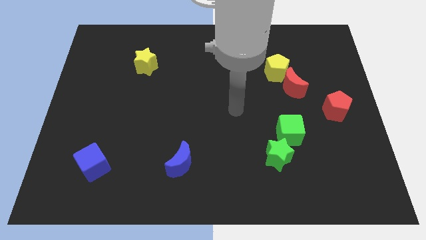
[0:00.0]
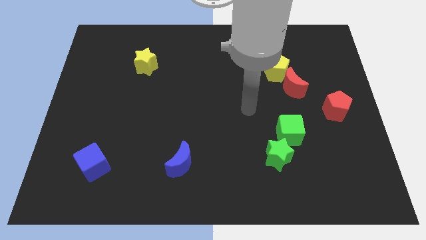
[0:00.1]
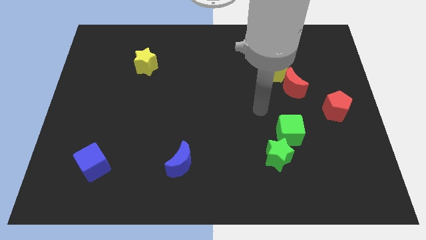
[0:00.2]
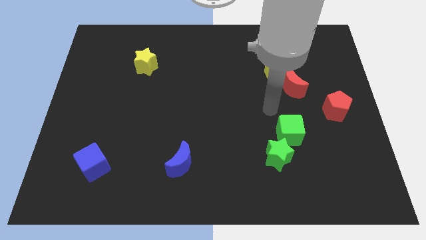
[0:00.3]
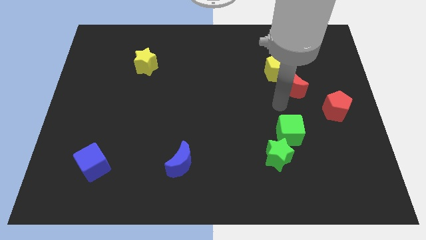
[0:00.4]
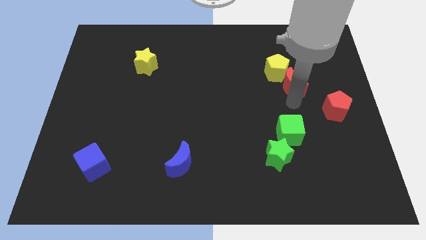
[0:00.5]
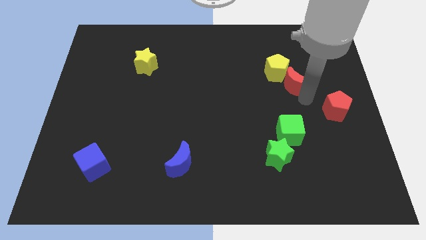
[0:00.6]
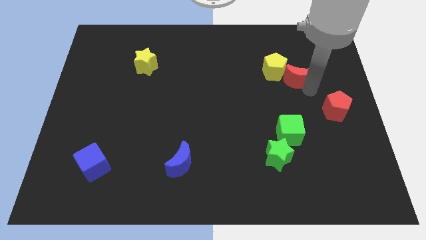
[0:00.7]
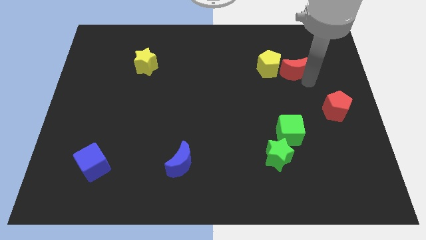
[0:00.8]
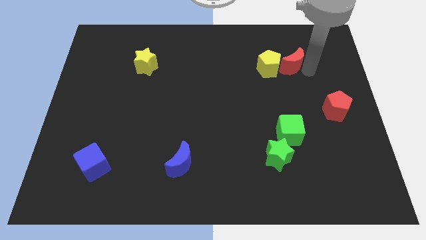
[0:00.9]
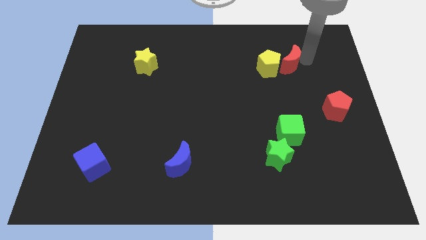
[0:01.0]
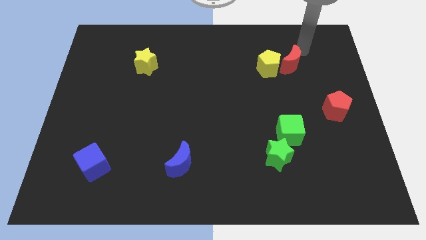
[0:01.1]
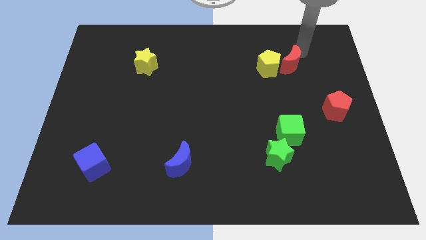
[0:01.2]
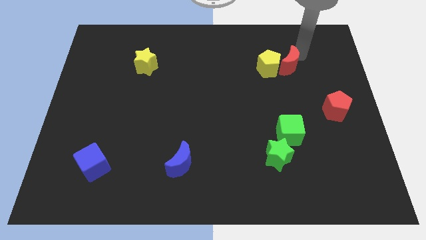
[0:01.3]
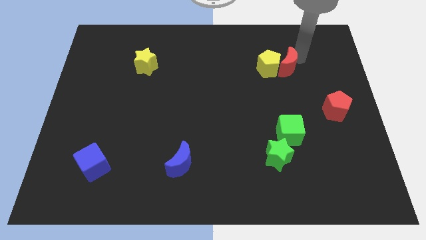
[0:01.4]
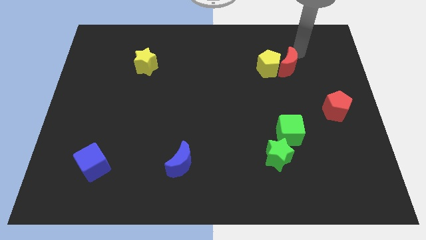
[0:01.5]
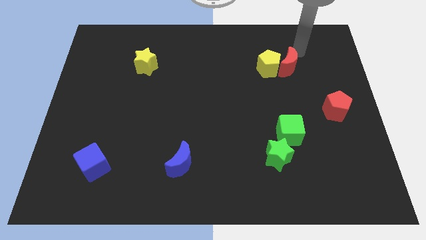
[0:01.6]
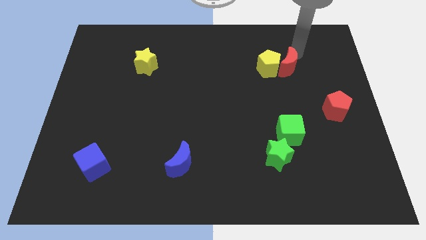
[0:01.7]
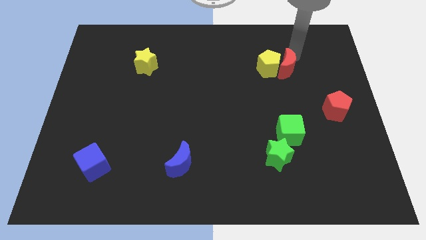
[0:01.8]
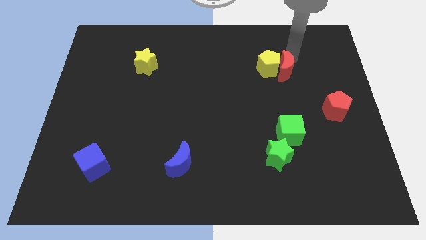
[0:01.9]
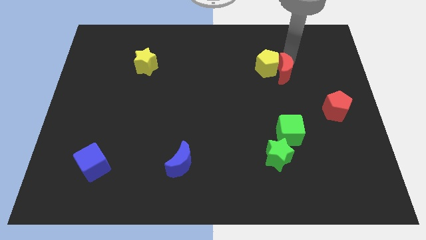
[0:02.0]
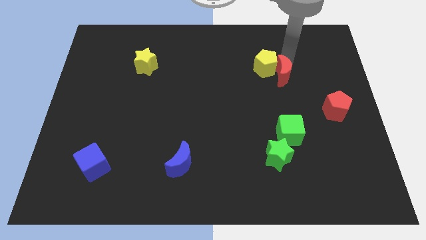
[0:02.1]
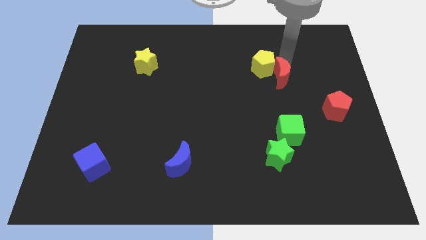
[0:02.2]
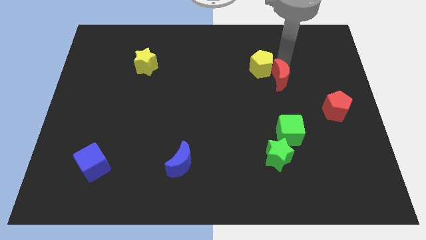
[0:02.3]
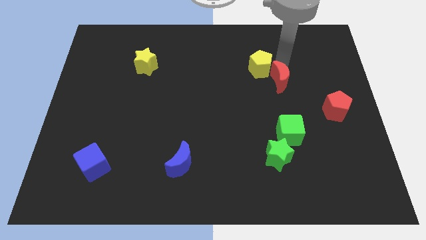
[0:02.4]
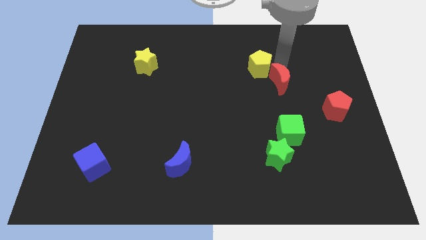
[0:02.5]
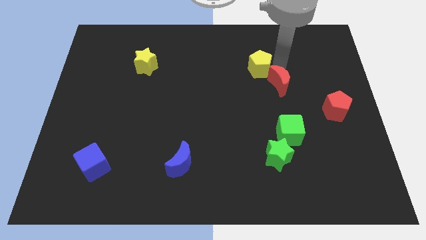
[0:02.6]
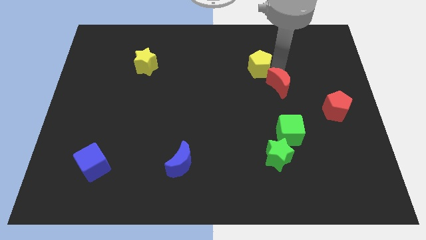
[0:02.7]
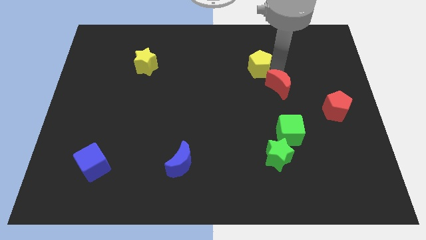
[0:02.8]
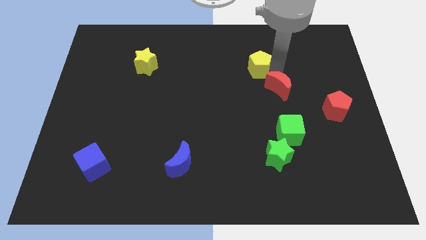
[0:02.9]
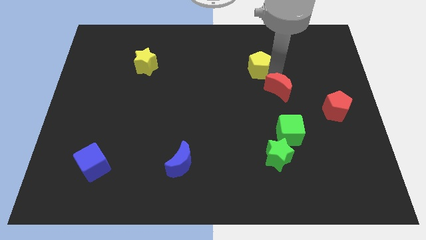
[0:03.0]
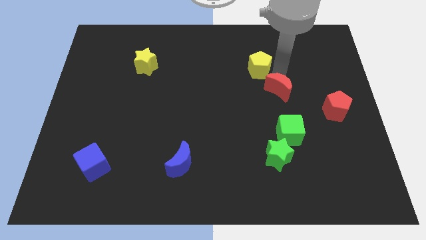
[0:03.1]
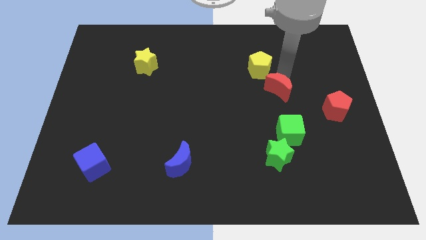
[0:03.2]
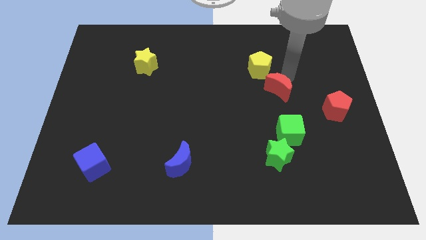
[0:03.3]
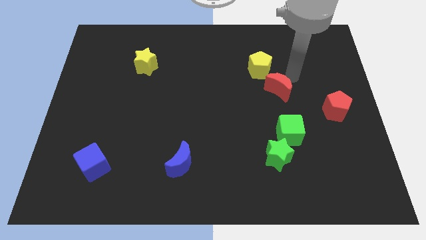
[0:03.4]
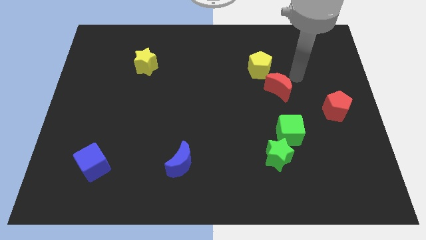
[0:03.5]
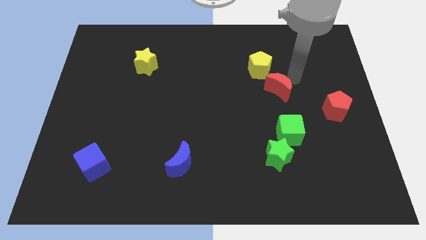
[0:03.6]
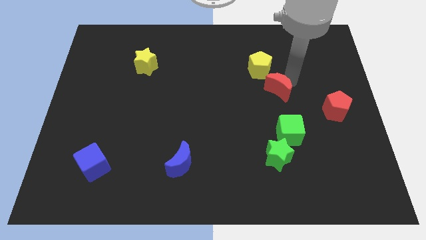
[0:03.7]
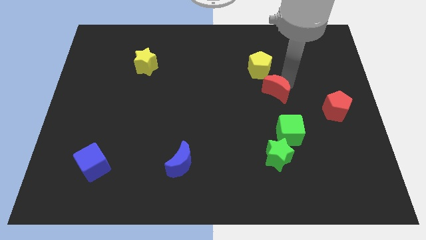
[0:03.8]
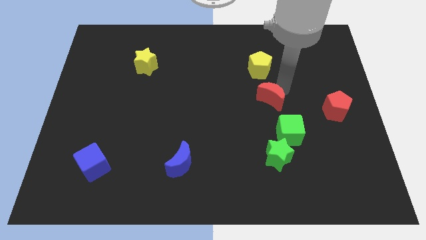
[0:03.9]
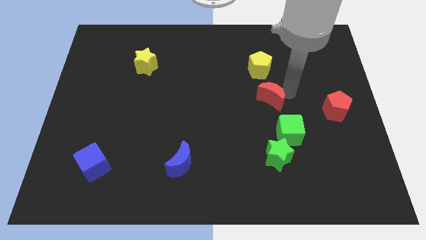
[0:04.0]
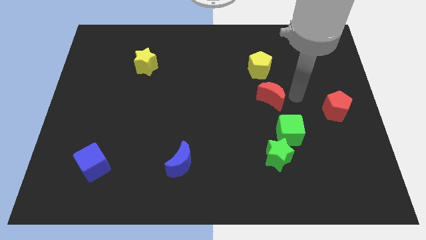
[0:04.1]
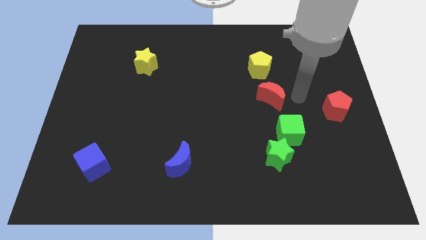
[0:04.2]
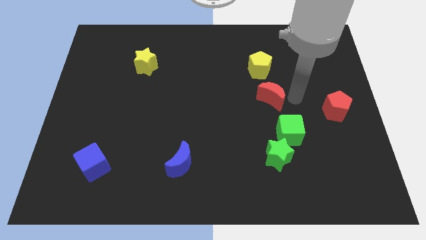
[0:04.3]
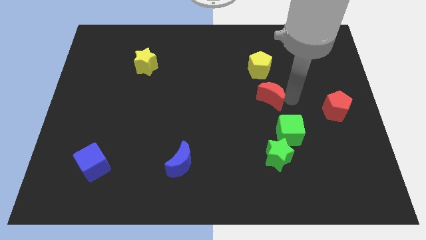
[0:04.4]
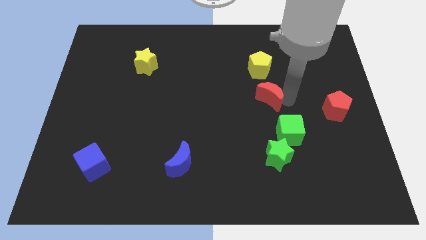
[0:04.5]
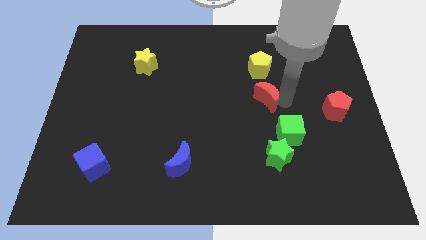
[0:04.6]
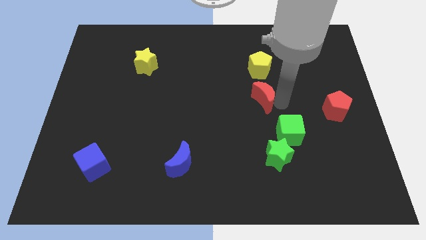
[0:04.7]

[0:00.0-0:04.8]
move the red moon to the center of the board

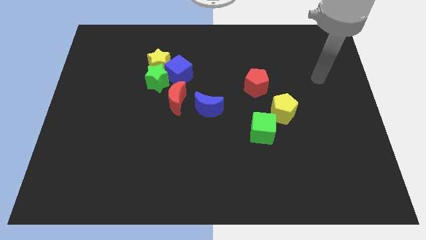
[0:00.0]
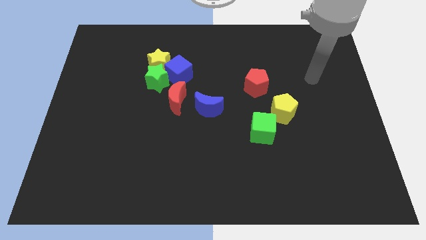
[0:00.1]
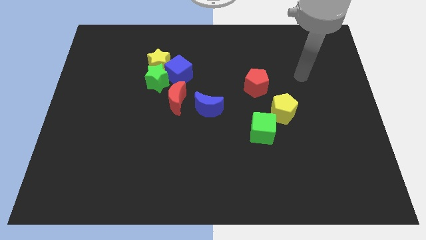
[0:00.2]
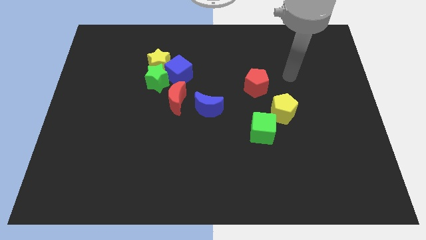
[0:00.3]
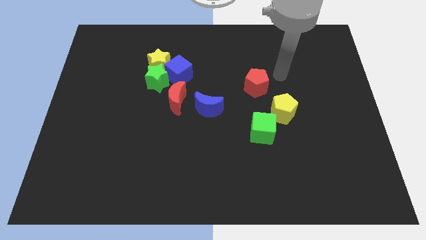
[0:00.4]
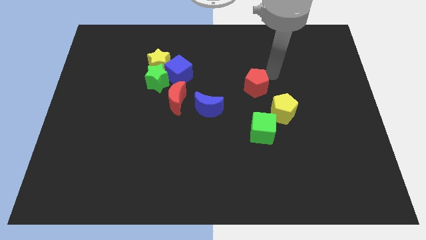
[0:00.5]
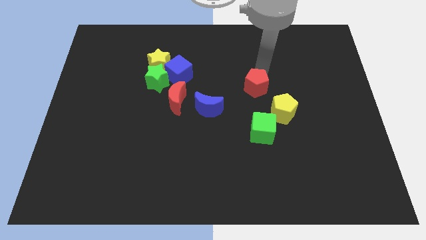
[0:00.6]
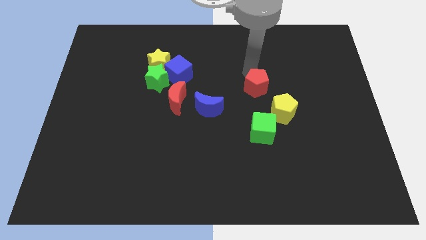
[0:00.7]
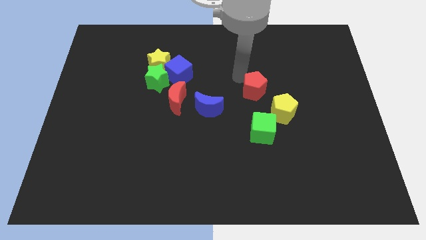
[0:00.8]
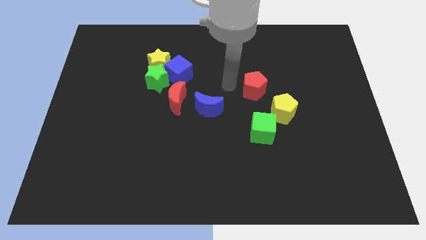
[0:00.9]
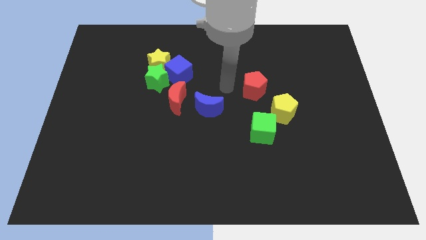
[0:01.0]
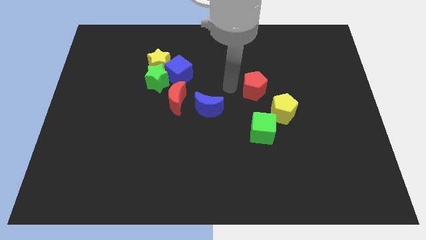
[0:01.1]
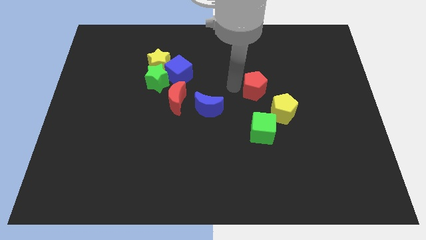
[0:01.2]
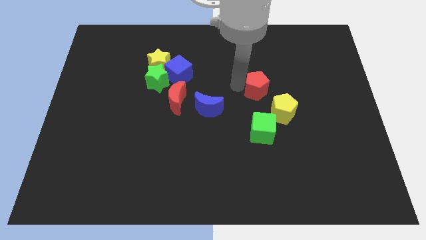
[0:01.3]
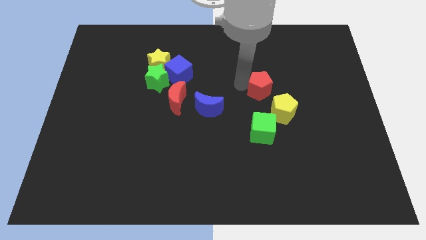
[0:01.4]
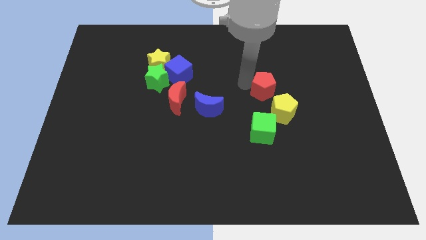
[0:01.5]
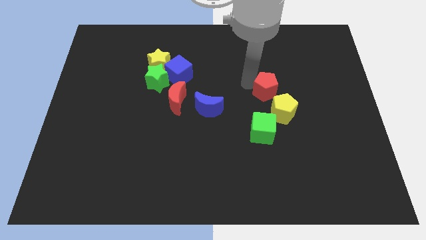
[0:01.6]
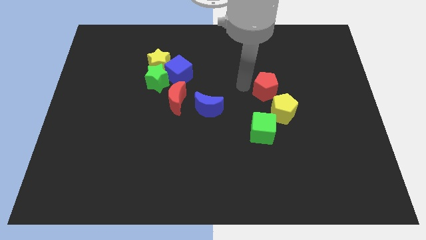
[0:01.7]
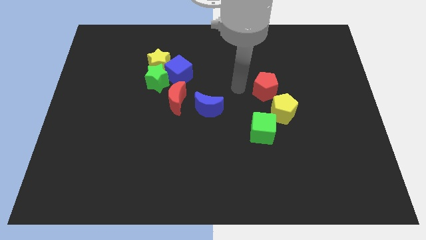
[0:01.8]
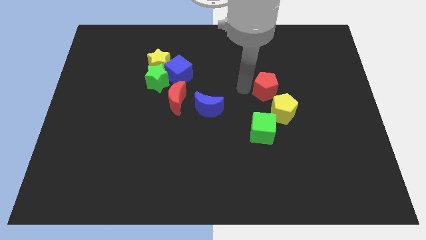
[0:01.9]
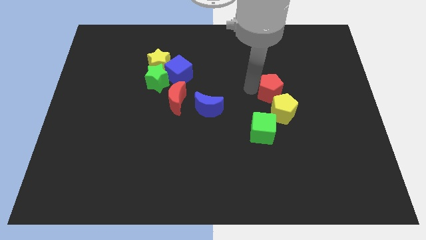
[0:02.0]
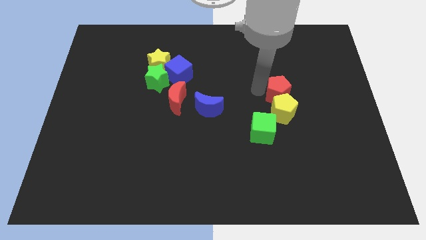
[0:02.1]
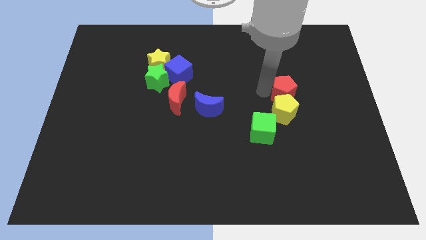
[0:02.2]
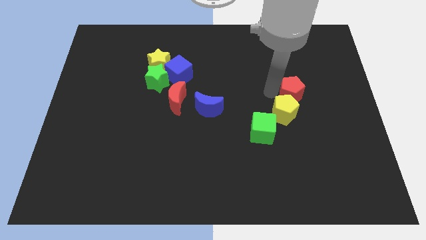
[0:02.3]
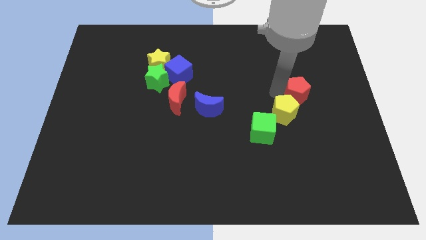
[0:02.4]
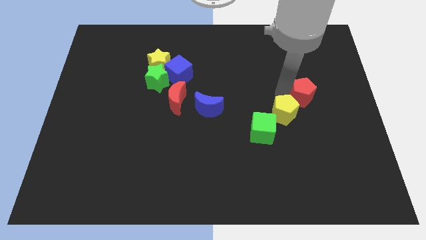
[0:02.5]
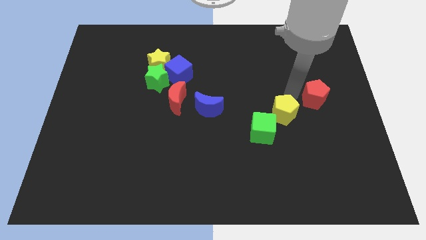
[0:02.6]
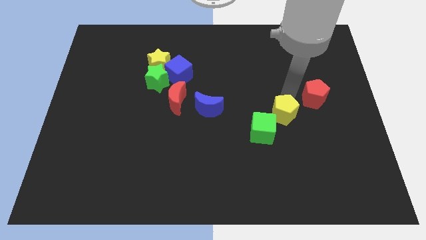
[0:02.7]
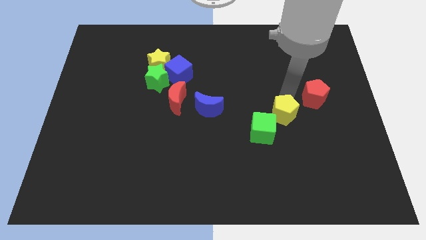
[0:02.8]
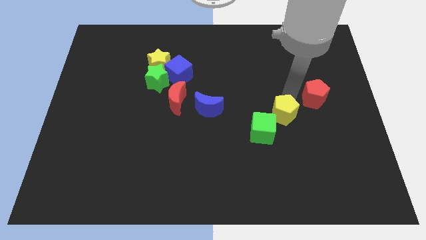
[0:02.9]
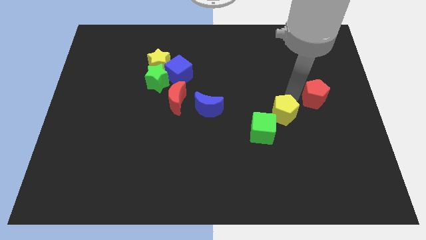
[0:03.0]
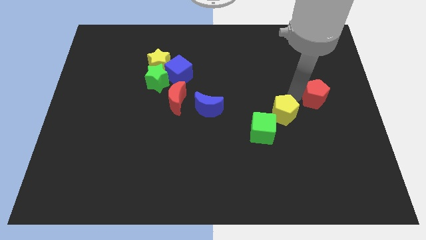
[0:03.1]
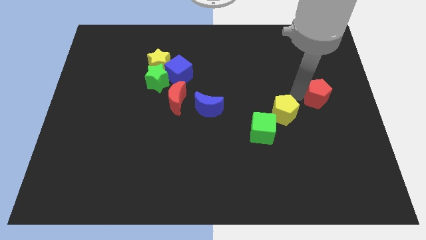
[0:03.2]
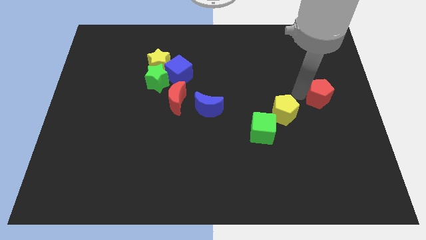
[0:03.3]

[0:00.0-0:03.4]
slide the red pentagon to the center right
